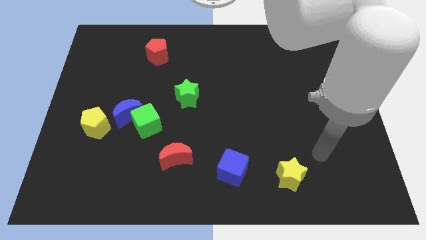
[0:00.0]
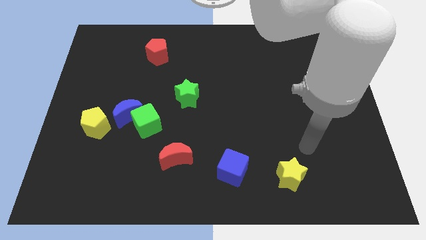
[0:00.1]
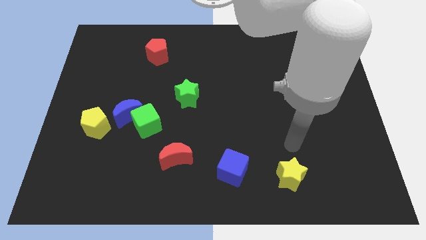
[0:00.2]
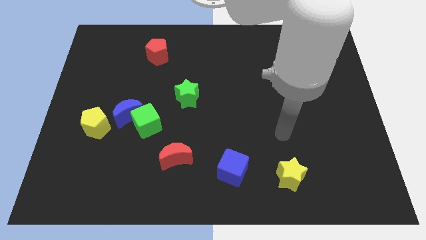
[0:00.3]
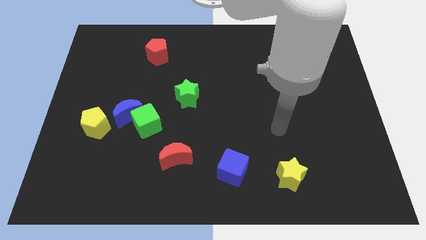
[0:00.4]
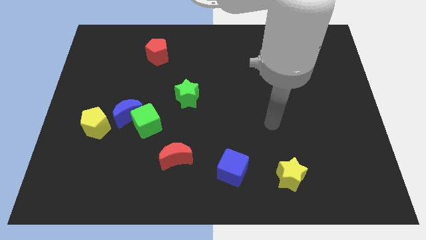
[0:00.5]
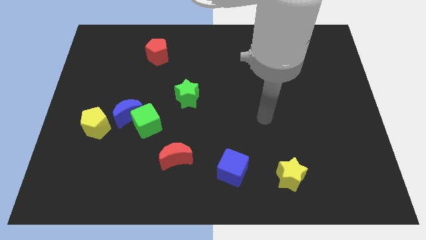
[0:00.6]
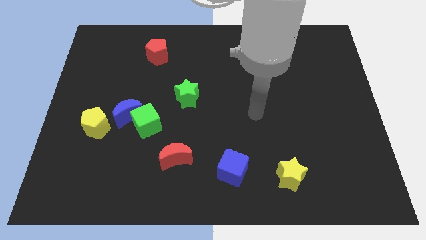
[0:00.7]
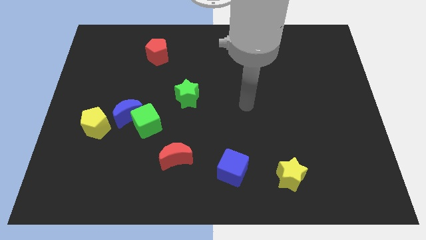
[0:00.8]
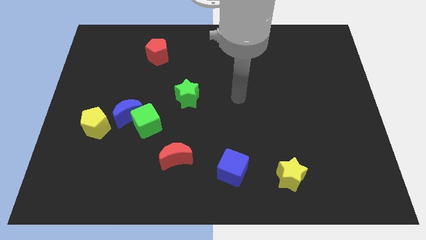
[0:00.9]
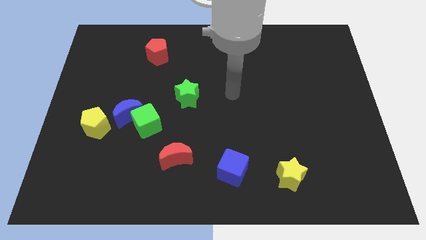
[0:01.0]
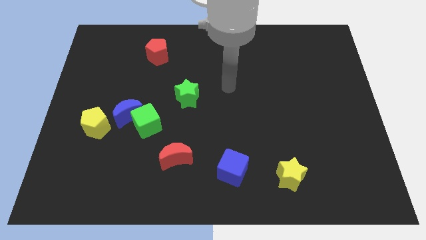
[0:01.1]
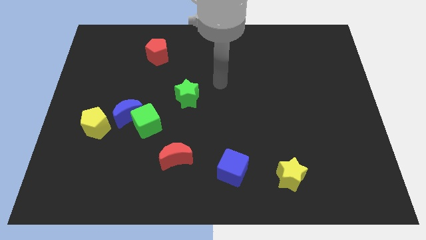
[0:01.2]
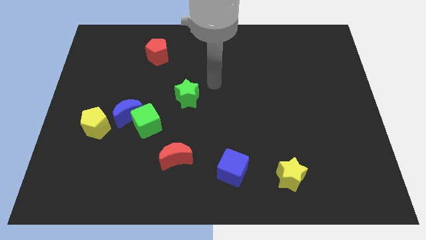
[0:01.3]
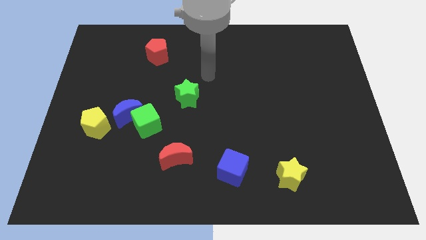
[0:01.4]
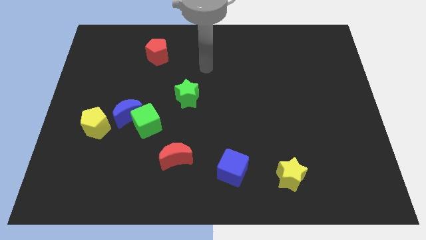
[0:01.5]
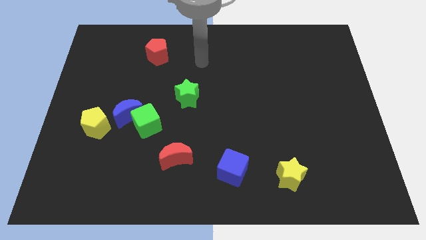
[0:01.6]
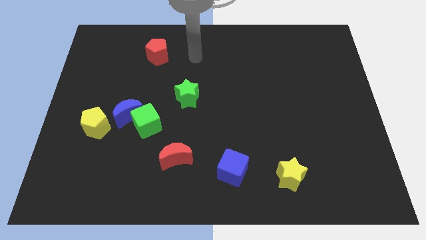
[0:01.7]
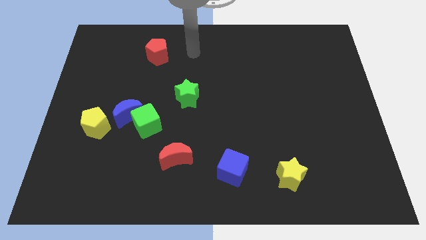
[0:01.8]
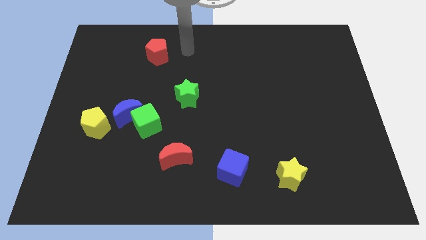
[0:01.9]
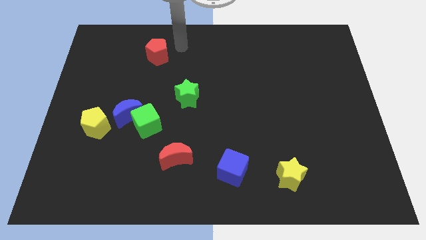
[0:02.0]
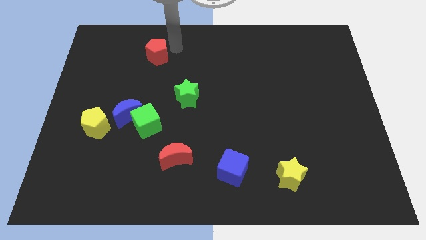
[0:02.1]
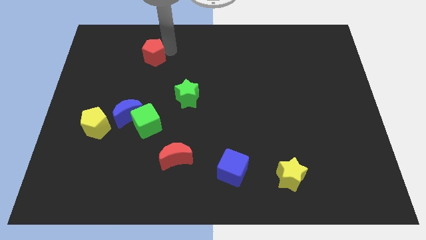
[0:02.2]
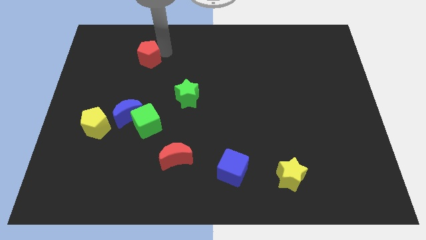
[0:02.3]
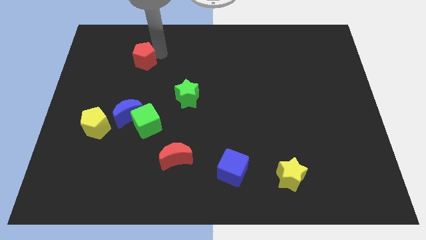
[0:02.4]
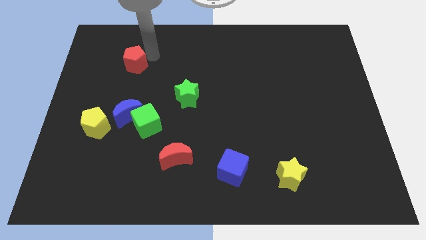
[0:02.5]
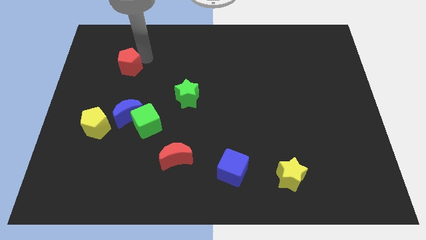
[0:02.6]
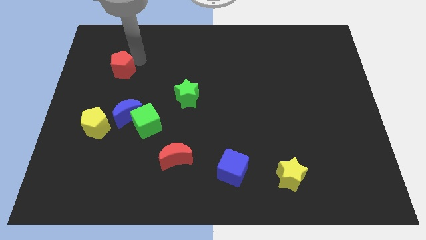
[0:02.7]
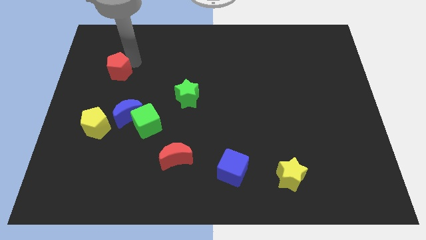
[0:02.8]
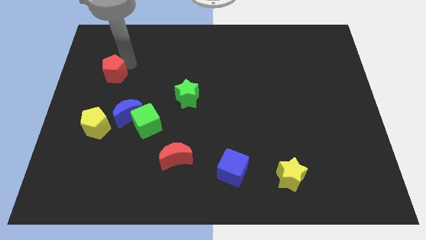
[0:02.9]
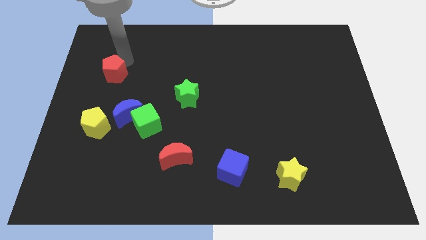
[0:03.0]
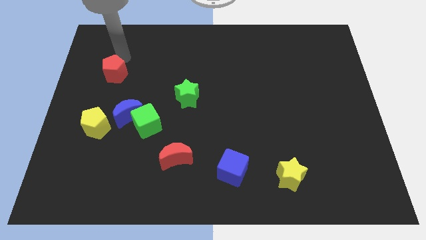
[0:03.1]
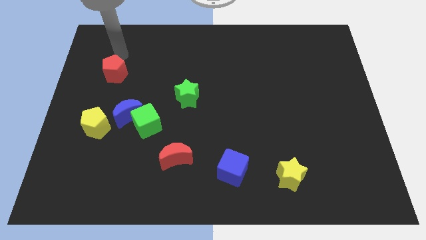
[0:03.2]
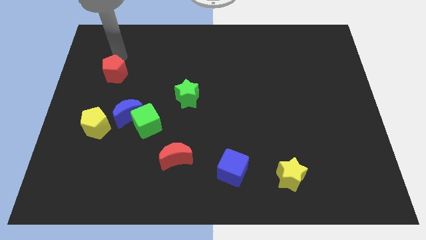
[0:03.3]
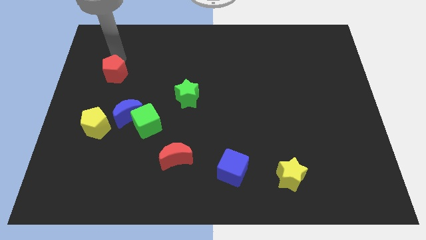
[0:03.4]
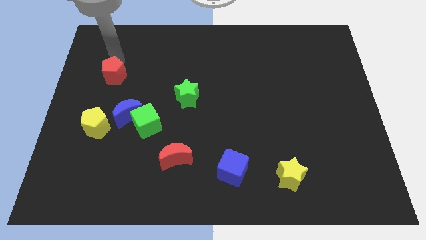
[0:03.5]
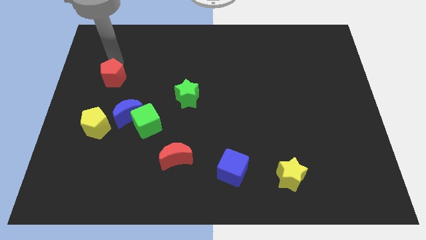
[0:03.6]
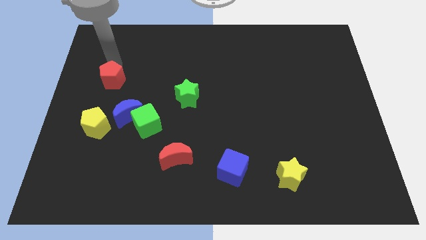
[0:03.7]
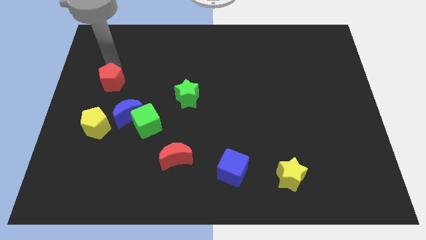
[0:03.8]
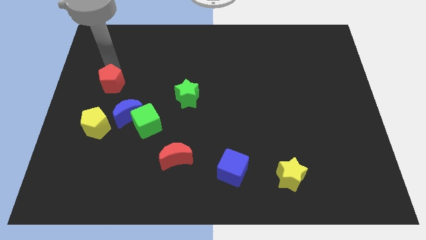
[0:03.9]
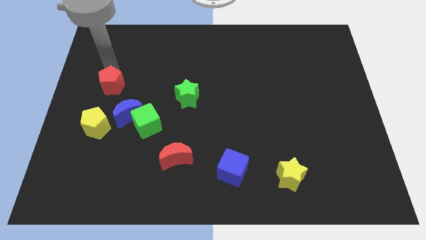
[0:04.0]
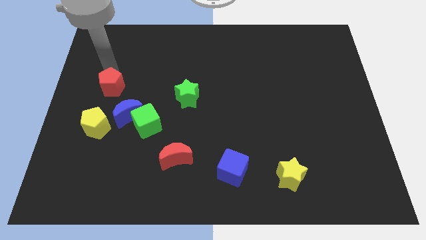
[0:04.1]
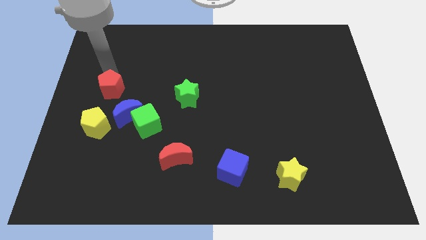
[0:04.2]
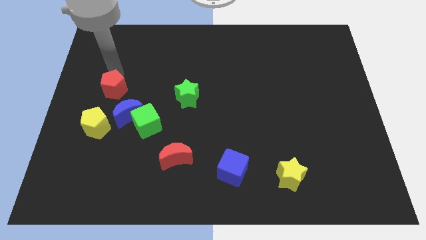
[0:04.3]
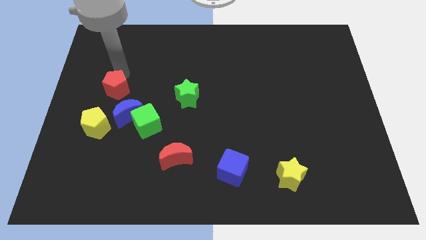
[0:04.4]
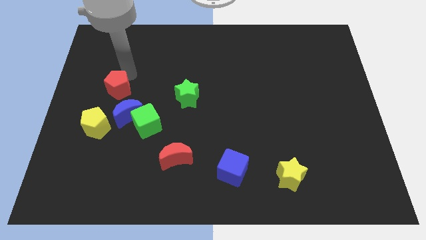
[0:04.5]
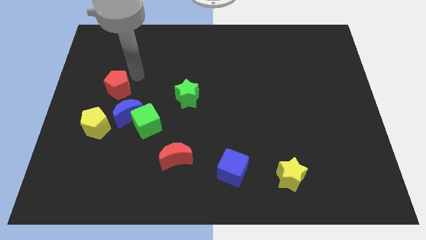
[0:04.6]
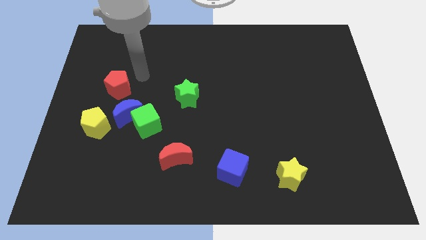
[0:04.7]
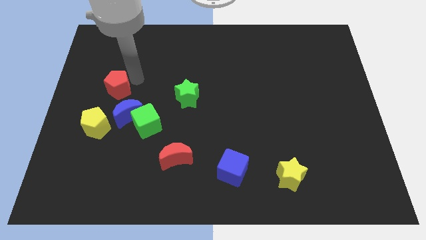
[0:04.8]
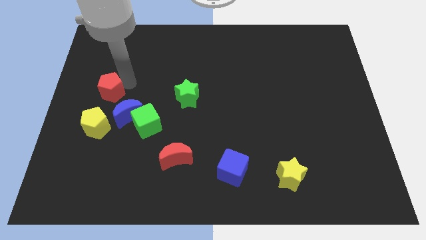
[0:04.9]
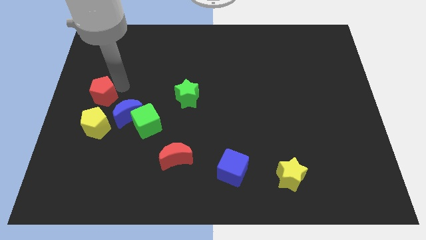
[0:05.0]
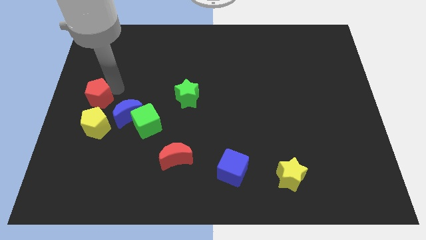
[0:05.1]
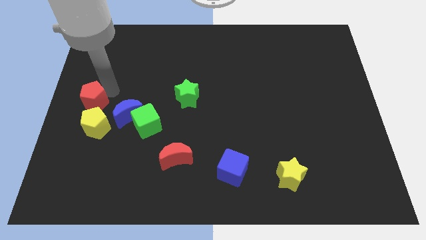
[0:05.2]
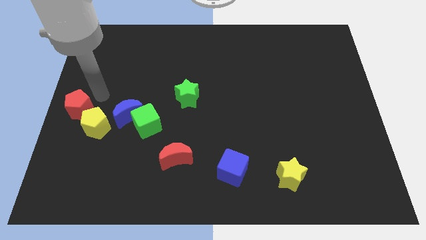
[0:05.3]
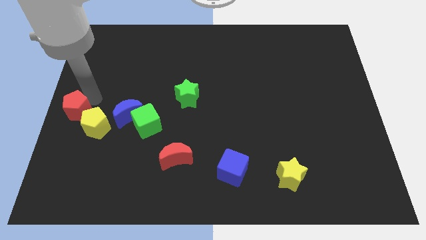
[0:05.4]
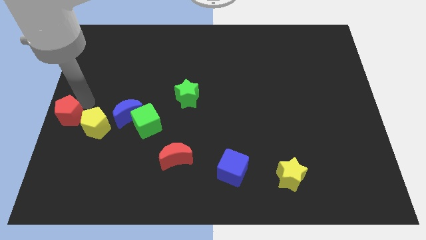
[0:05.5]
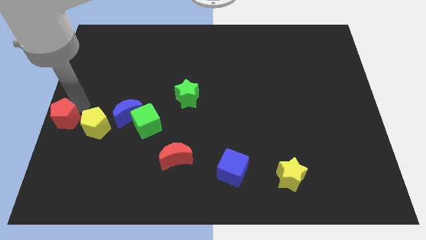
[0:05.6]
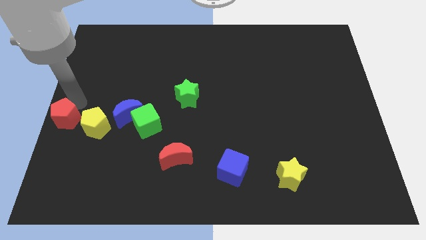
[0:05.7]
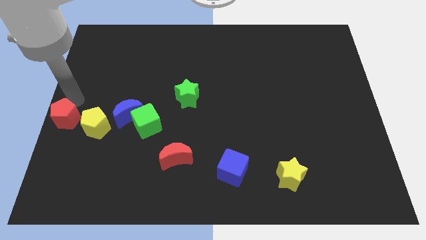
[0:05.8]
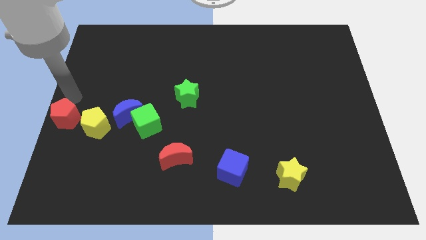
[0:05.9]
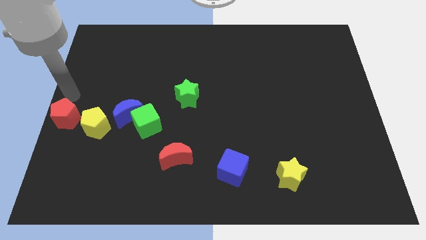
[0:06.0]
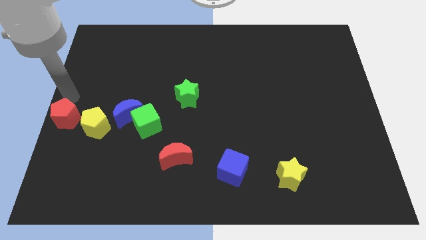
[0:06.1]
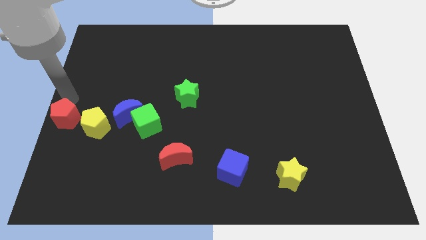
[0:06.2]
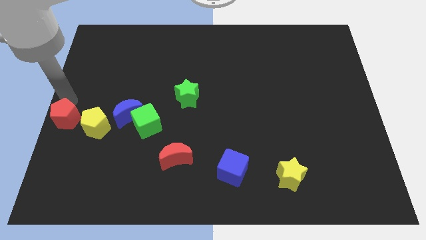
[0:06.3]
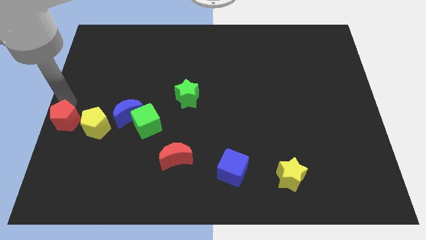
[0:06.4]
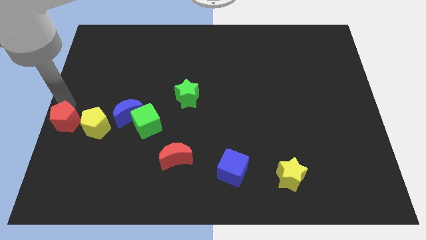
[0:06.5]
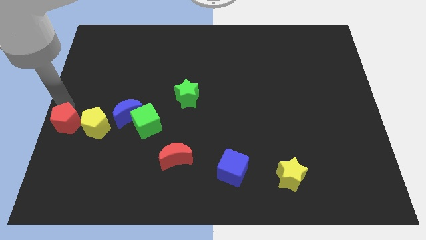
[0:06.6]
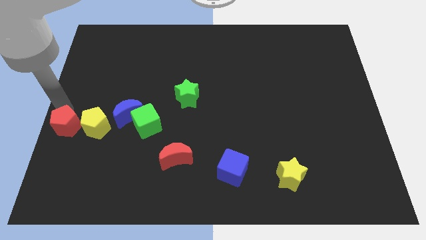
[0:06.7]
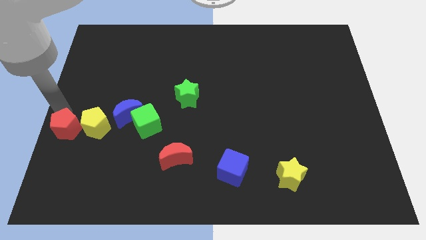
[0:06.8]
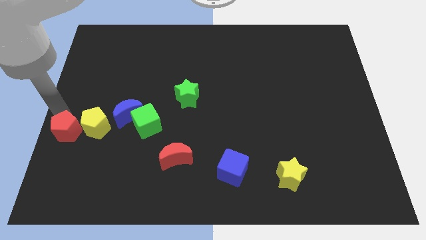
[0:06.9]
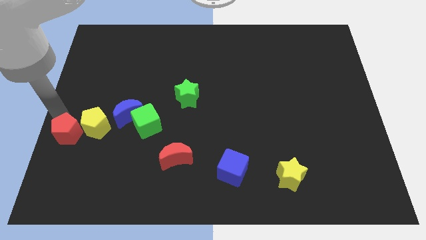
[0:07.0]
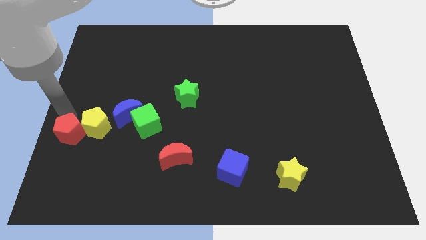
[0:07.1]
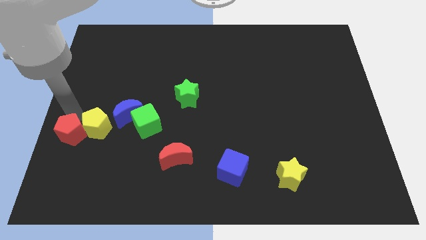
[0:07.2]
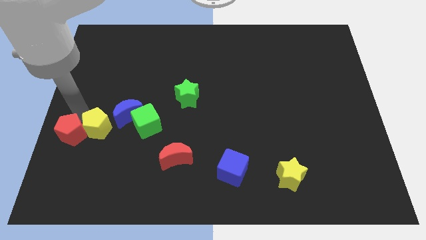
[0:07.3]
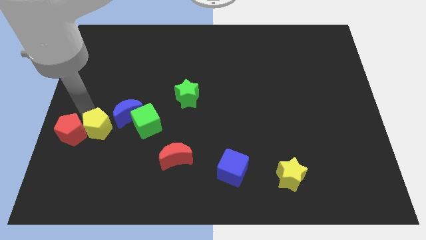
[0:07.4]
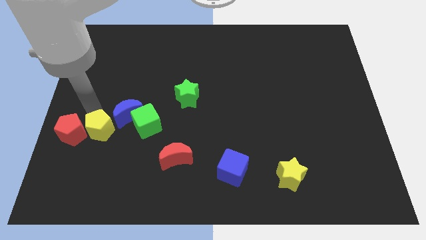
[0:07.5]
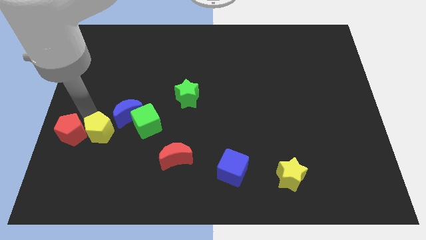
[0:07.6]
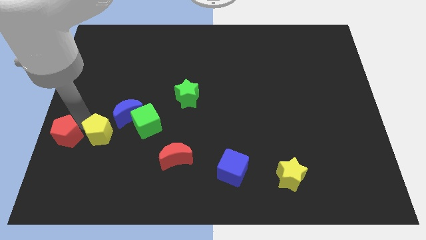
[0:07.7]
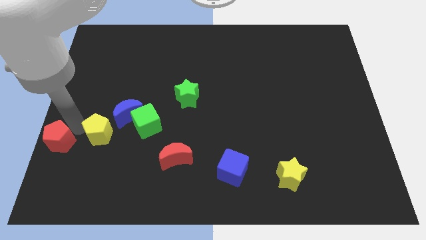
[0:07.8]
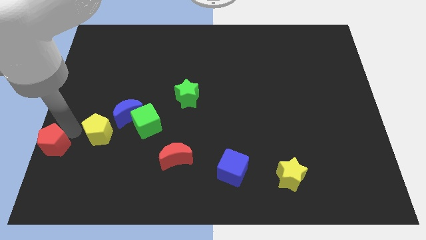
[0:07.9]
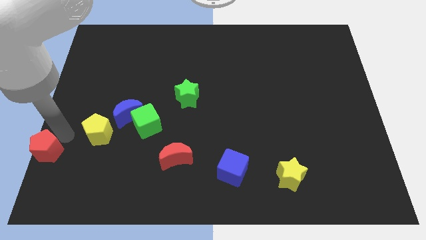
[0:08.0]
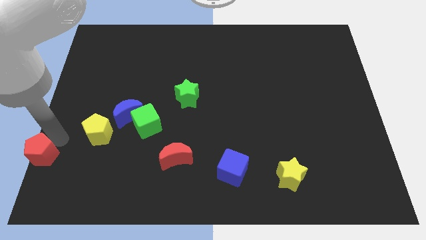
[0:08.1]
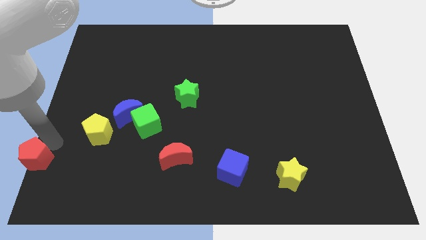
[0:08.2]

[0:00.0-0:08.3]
put the red pentagon to the lower left corner
